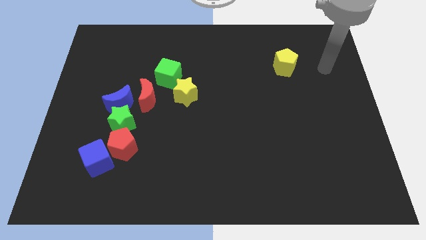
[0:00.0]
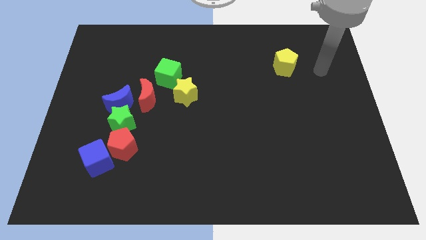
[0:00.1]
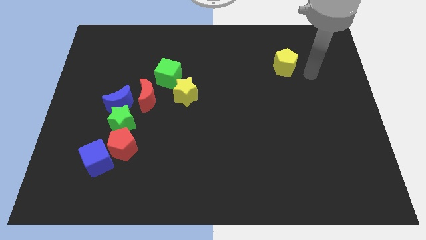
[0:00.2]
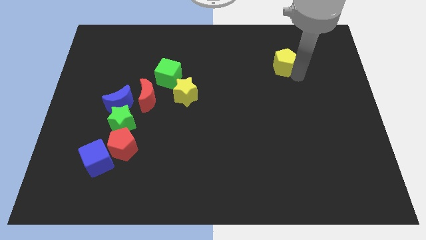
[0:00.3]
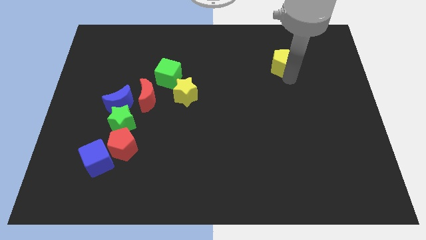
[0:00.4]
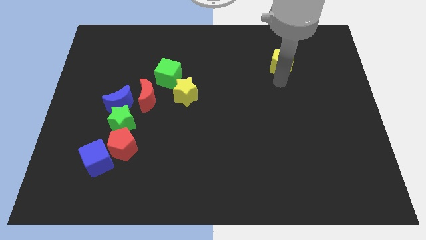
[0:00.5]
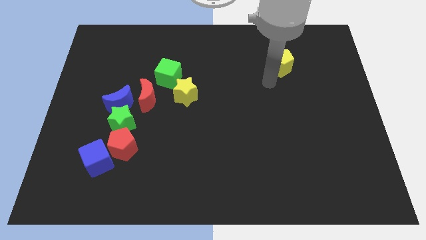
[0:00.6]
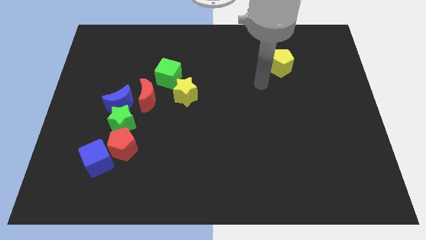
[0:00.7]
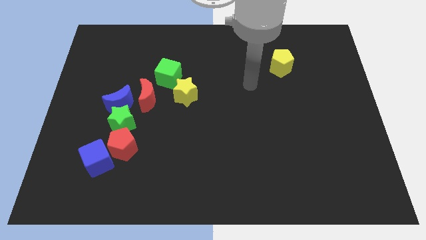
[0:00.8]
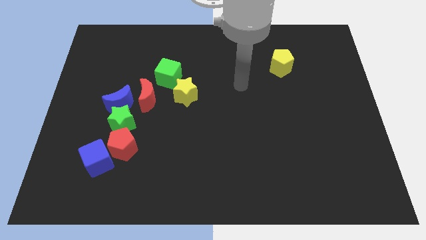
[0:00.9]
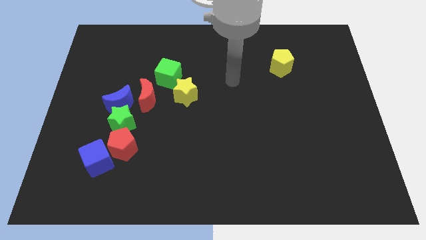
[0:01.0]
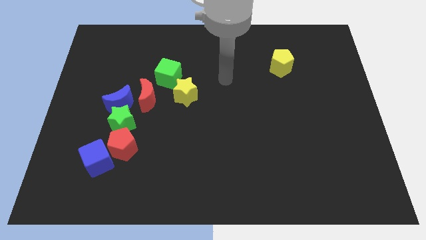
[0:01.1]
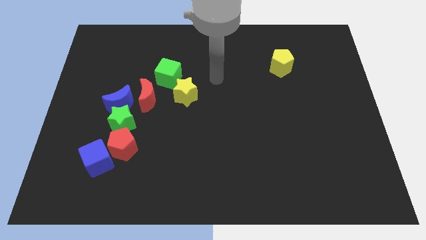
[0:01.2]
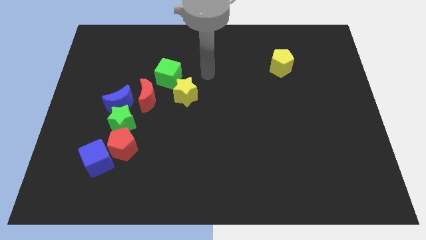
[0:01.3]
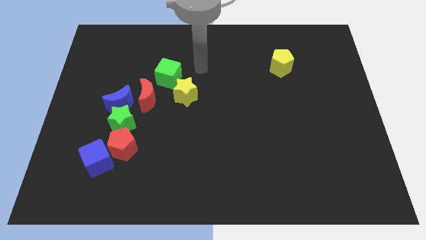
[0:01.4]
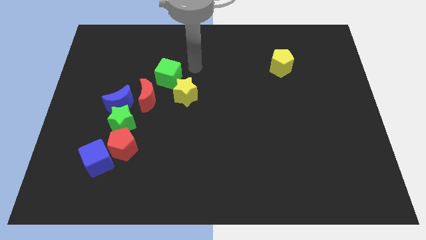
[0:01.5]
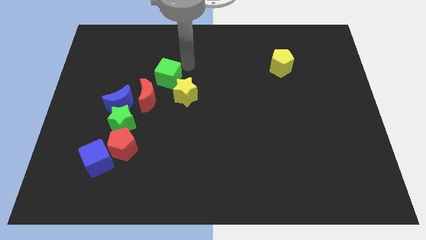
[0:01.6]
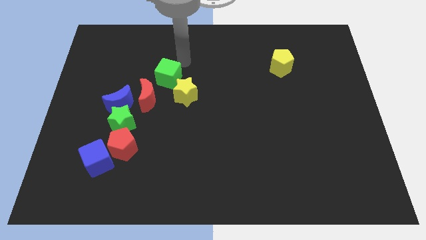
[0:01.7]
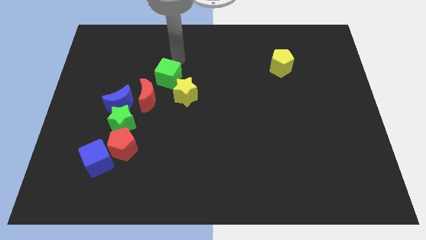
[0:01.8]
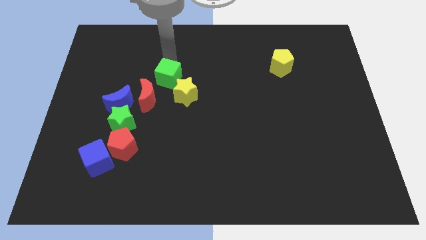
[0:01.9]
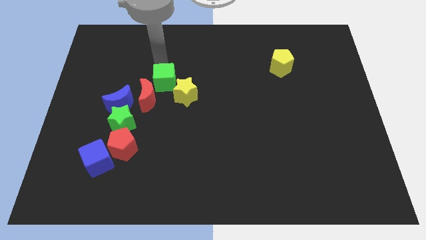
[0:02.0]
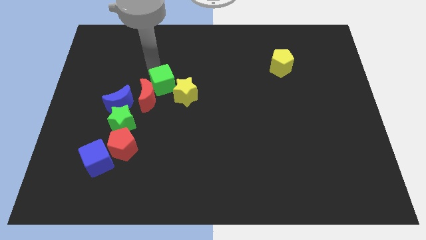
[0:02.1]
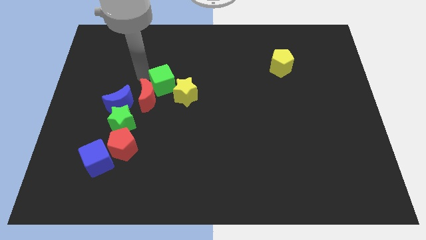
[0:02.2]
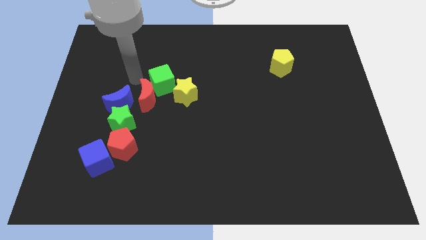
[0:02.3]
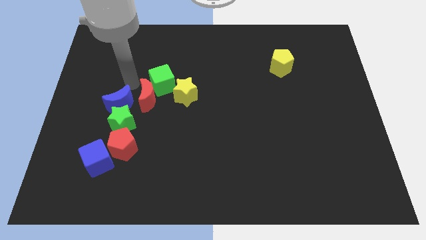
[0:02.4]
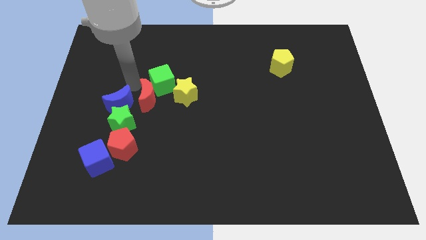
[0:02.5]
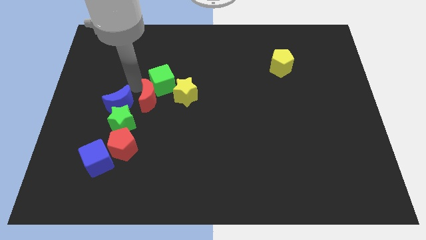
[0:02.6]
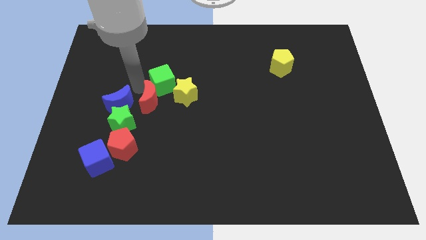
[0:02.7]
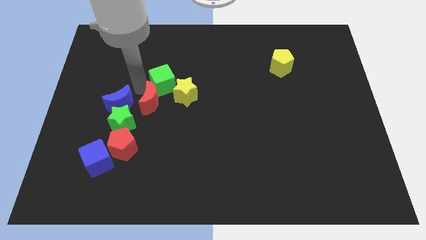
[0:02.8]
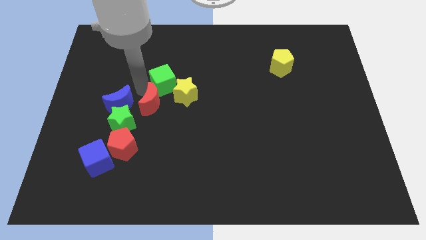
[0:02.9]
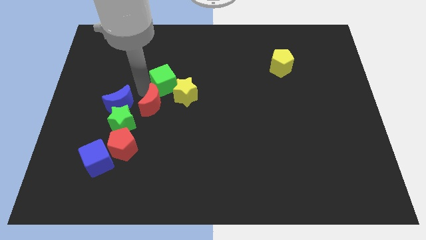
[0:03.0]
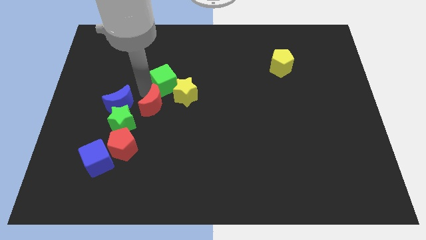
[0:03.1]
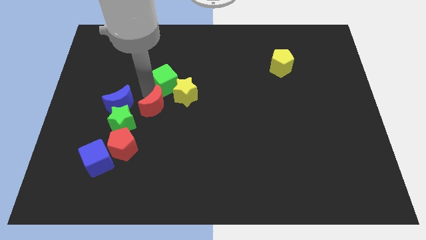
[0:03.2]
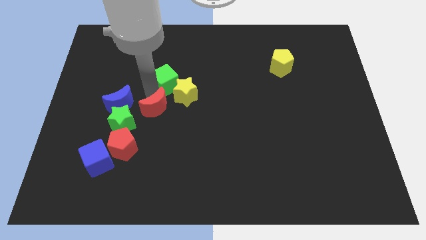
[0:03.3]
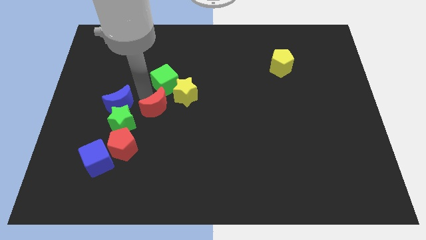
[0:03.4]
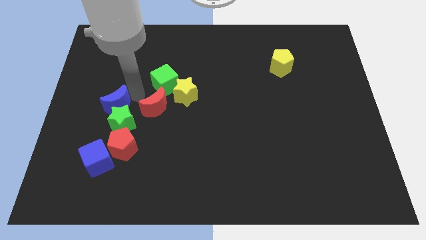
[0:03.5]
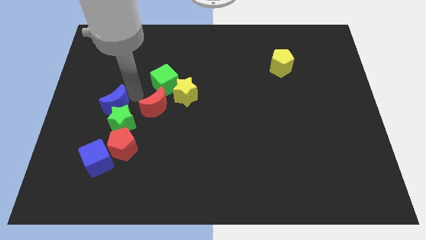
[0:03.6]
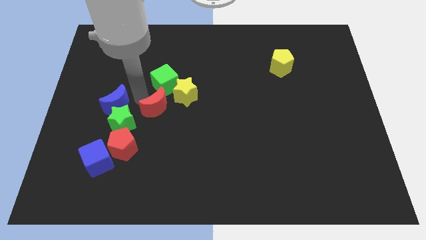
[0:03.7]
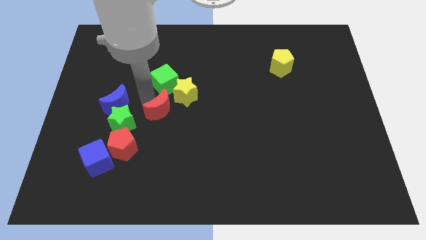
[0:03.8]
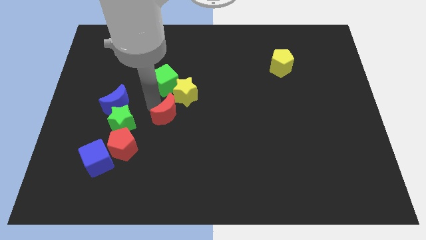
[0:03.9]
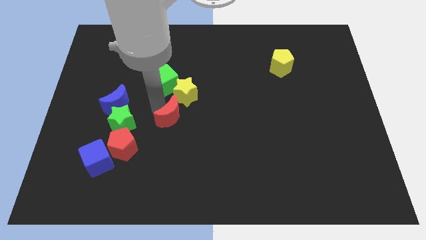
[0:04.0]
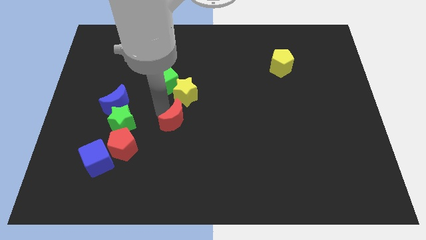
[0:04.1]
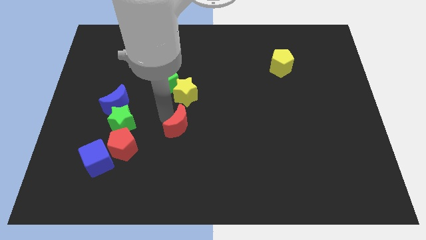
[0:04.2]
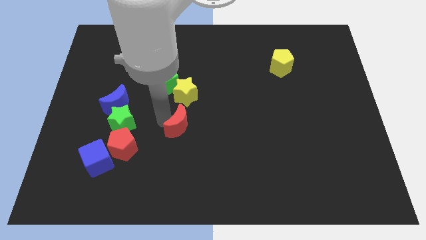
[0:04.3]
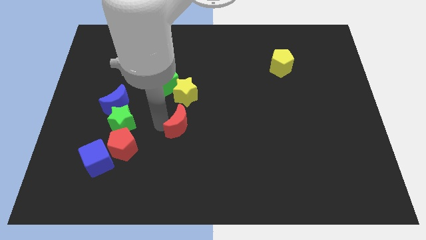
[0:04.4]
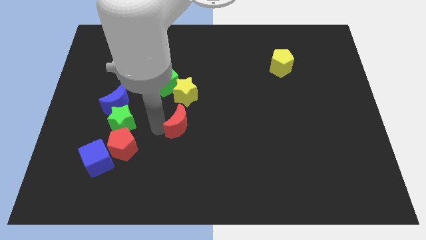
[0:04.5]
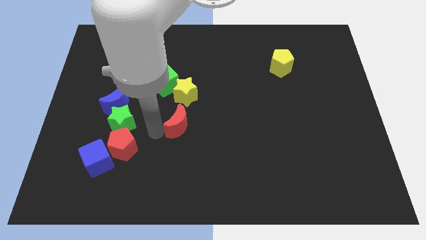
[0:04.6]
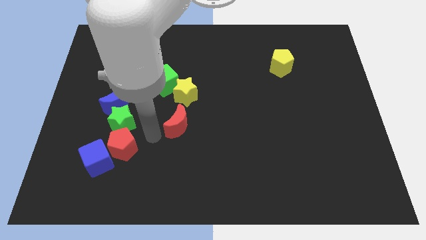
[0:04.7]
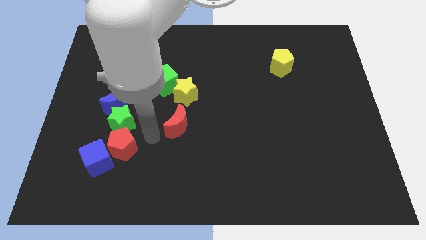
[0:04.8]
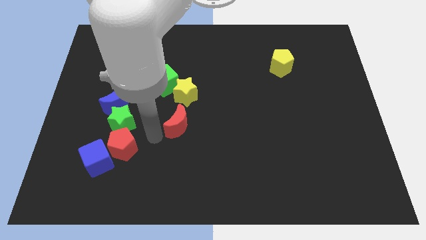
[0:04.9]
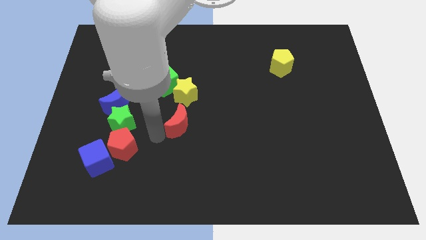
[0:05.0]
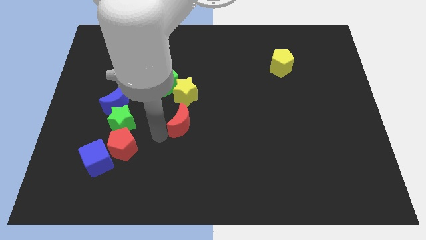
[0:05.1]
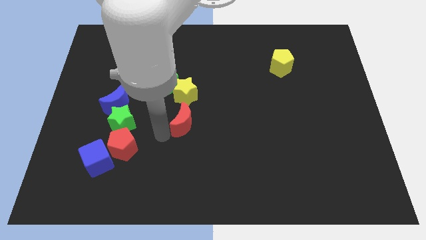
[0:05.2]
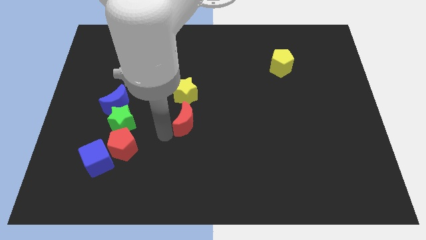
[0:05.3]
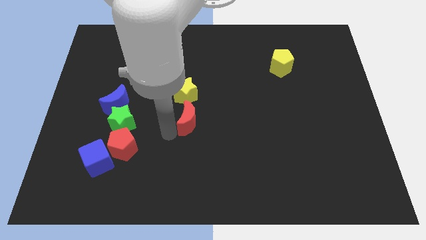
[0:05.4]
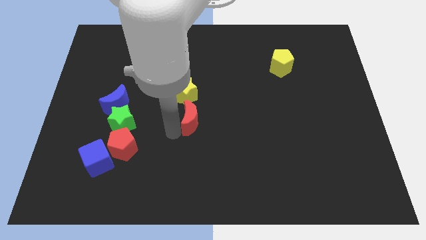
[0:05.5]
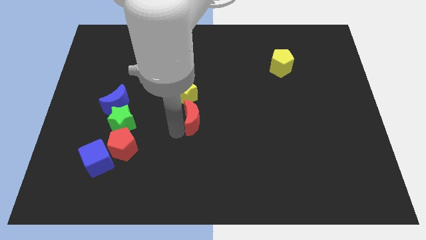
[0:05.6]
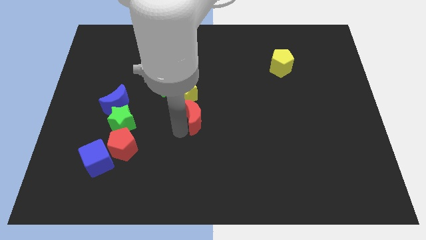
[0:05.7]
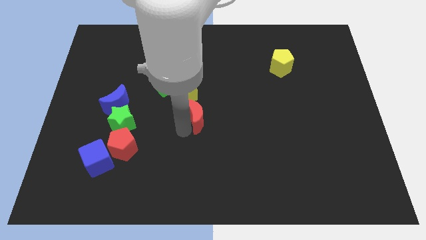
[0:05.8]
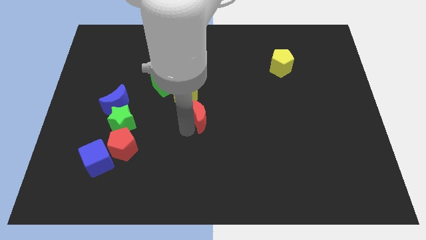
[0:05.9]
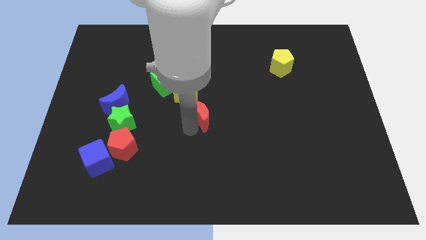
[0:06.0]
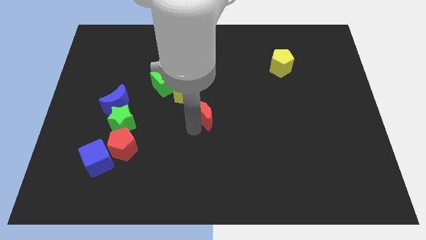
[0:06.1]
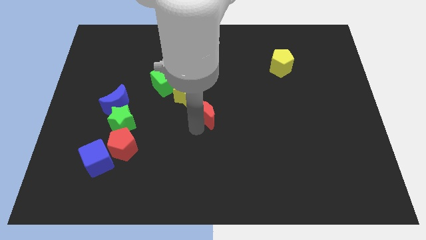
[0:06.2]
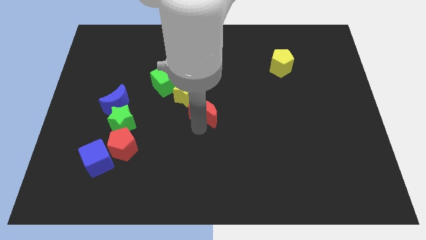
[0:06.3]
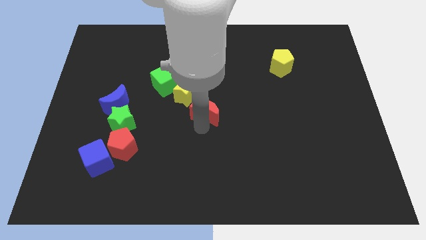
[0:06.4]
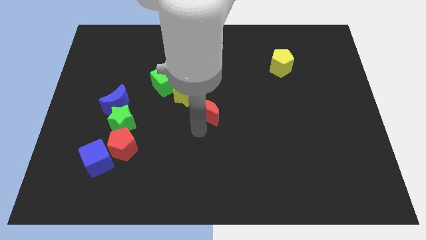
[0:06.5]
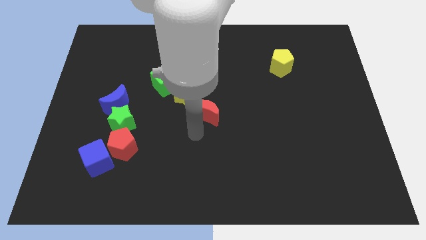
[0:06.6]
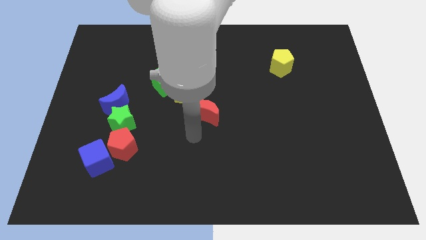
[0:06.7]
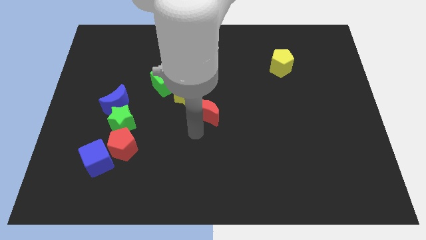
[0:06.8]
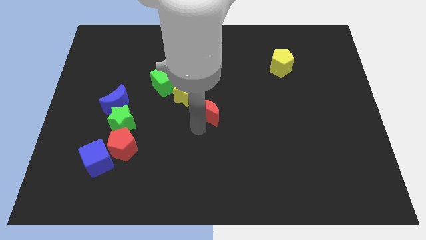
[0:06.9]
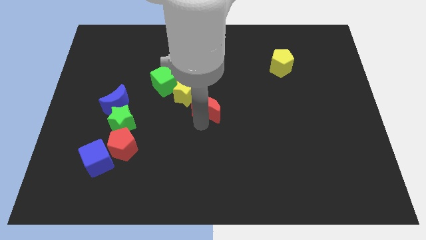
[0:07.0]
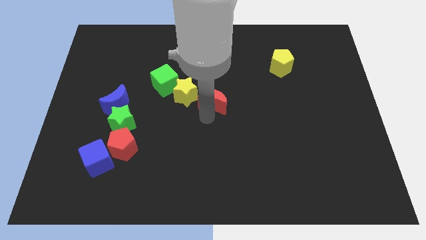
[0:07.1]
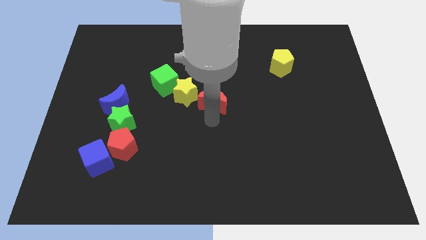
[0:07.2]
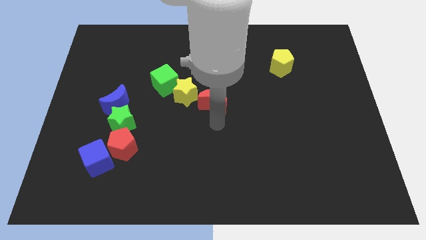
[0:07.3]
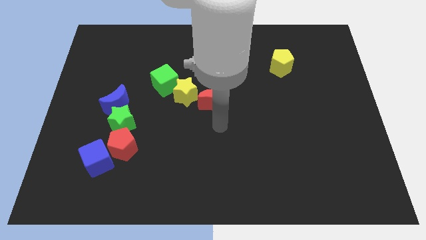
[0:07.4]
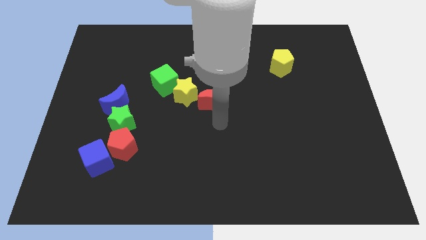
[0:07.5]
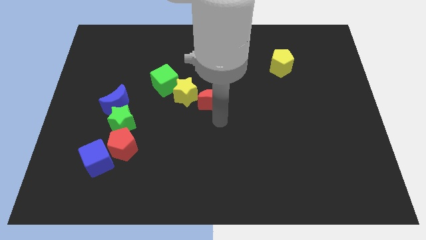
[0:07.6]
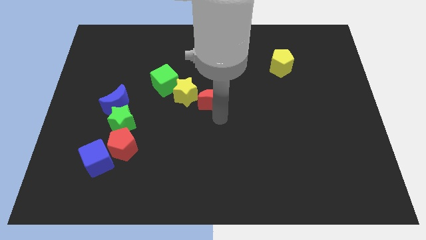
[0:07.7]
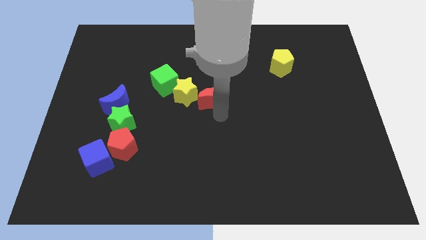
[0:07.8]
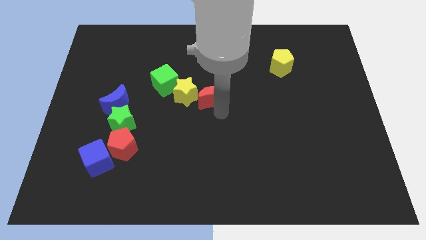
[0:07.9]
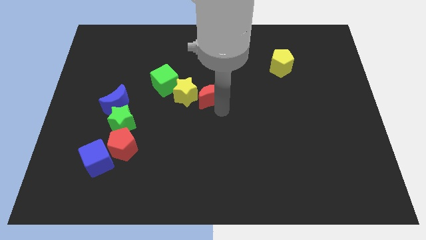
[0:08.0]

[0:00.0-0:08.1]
push the red moon right of the green cube
